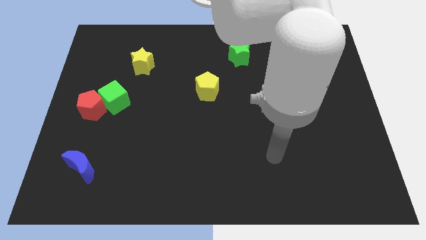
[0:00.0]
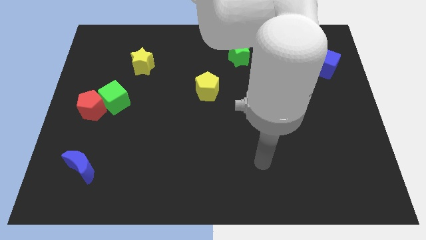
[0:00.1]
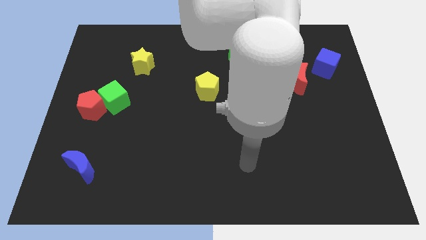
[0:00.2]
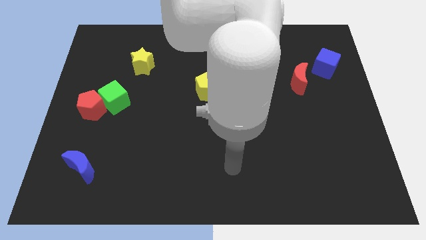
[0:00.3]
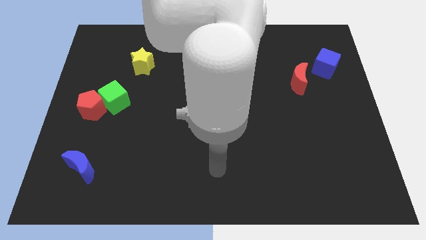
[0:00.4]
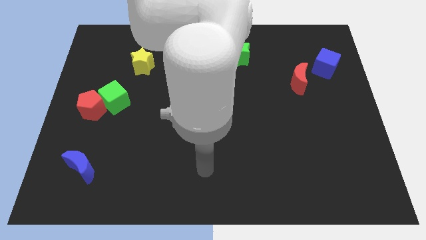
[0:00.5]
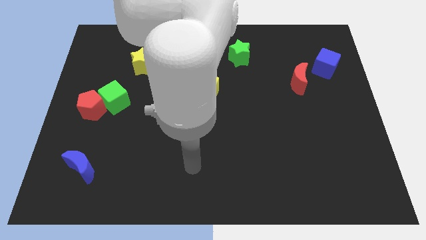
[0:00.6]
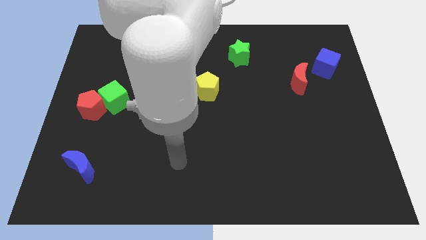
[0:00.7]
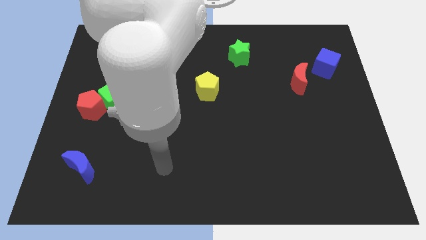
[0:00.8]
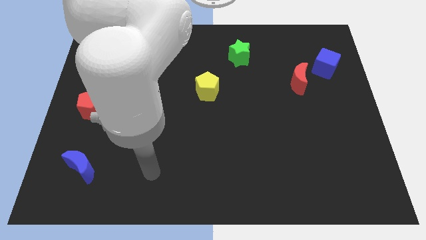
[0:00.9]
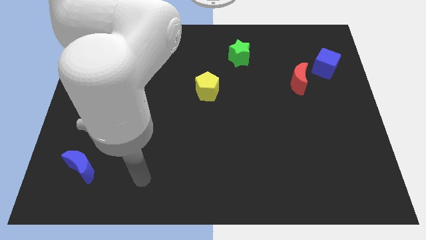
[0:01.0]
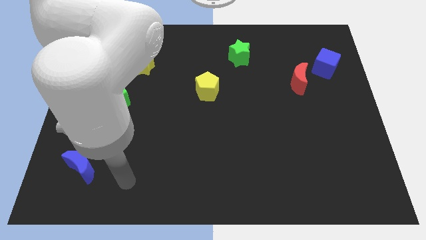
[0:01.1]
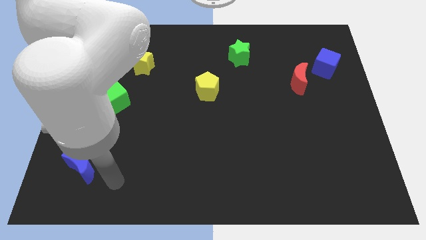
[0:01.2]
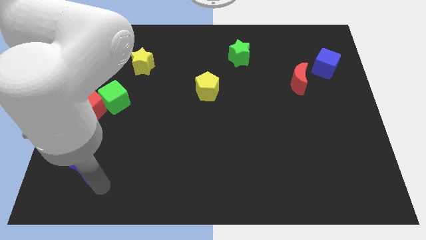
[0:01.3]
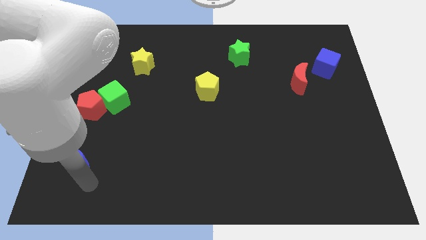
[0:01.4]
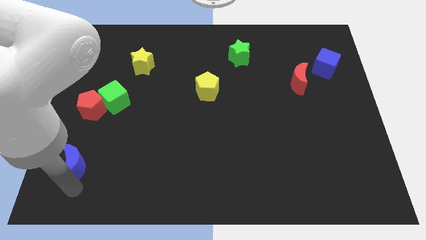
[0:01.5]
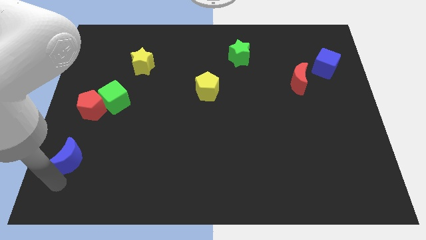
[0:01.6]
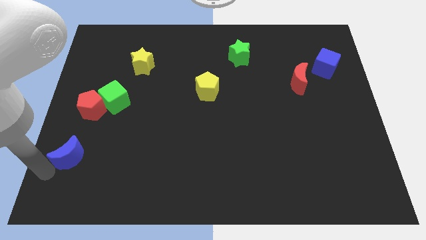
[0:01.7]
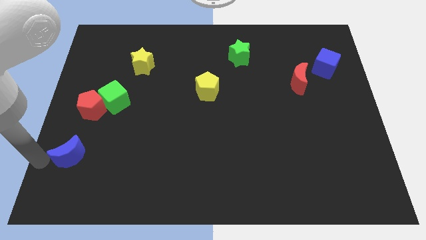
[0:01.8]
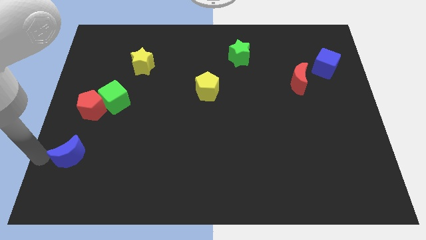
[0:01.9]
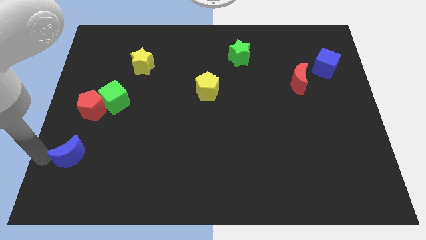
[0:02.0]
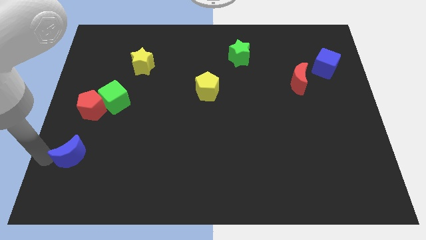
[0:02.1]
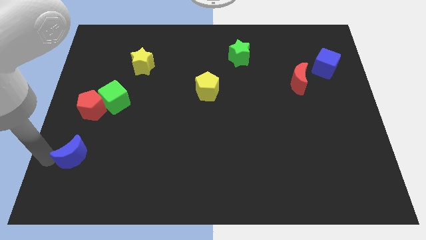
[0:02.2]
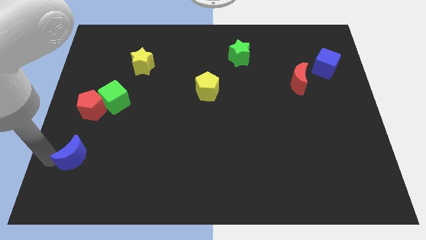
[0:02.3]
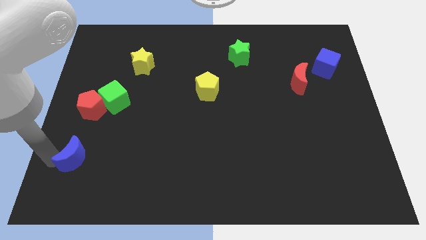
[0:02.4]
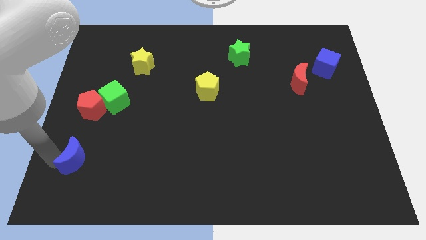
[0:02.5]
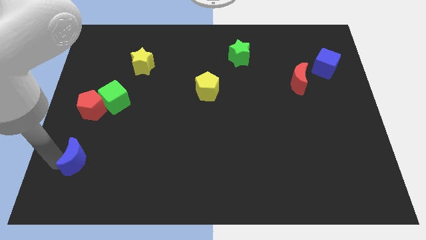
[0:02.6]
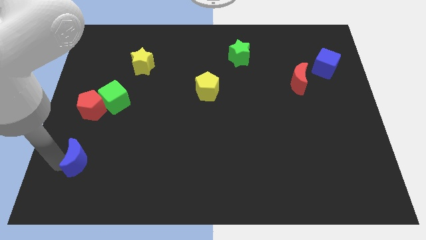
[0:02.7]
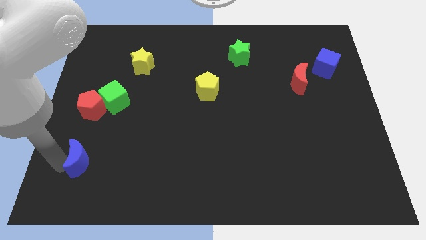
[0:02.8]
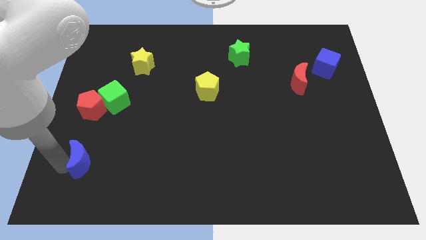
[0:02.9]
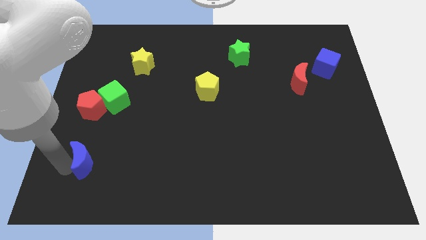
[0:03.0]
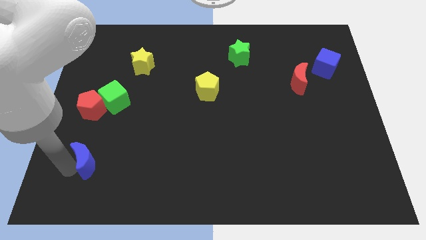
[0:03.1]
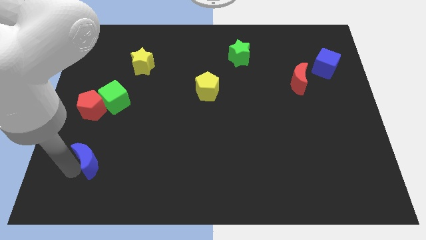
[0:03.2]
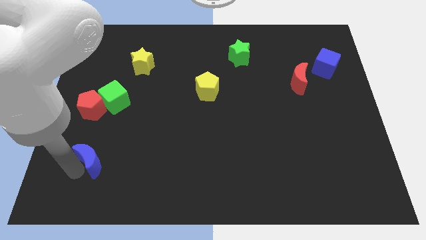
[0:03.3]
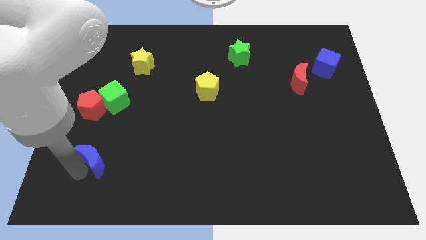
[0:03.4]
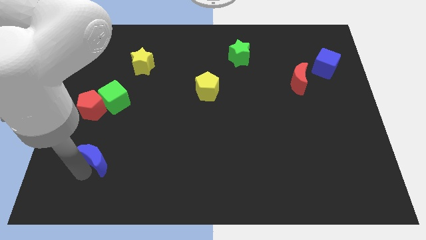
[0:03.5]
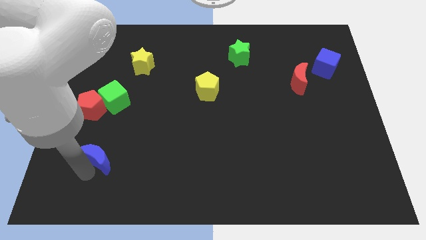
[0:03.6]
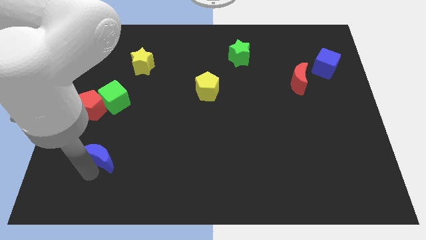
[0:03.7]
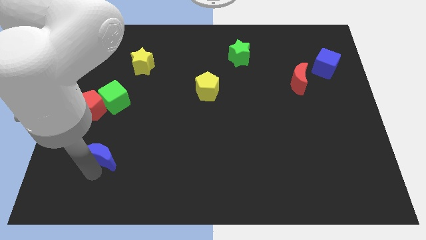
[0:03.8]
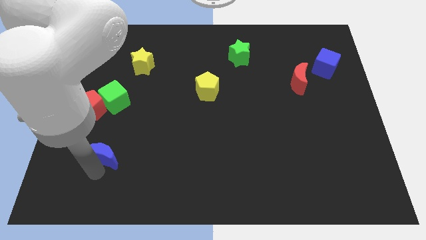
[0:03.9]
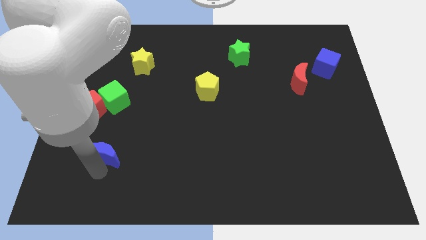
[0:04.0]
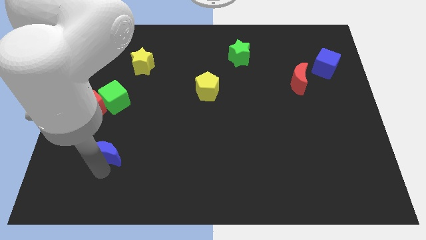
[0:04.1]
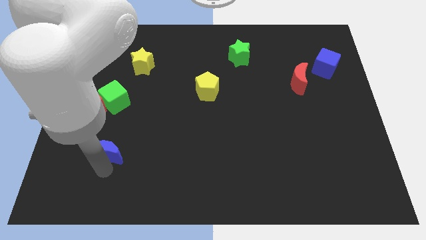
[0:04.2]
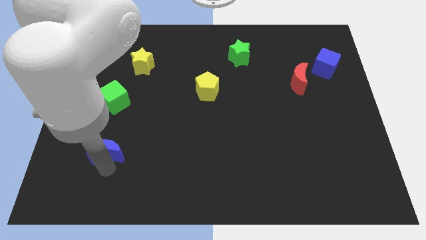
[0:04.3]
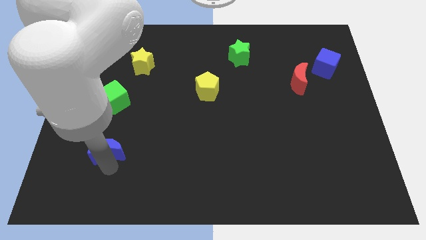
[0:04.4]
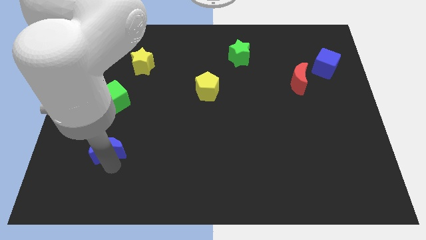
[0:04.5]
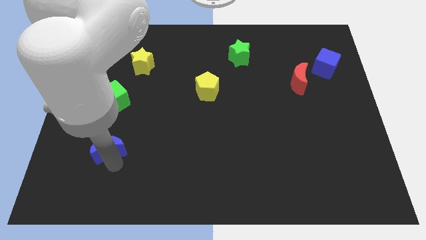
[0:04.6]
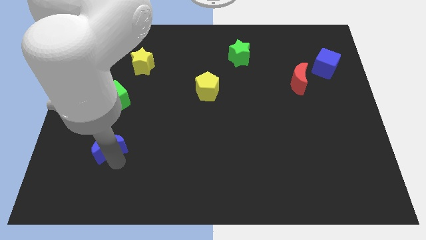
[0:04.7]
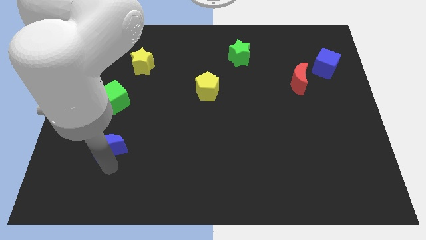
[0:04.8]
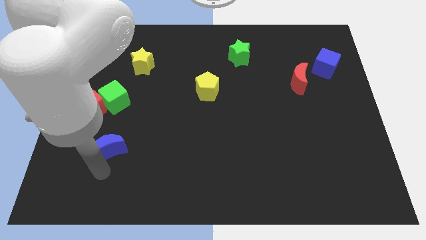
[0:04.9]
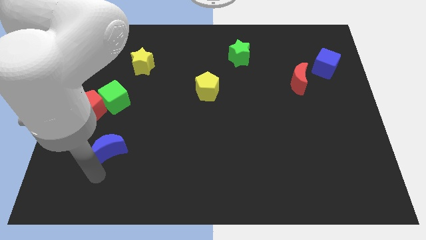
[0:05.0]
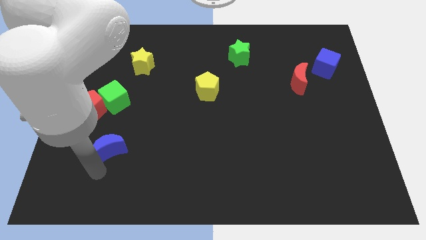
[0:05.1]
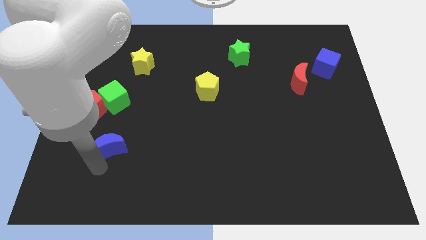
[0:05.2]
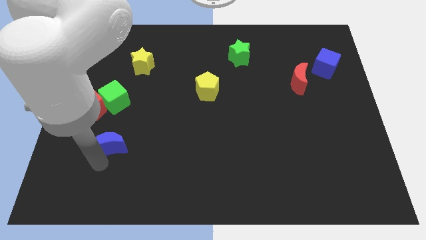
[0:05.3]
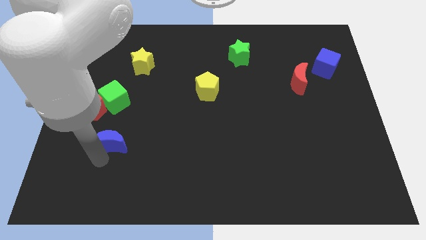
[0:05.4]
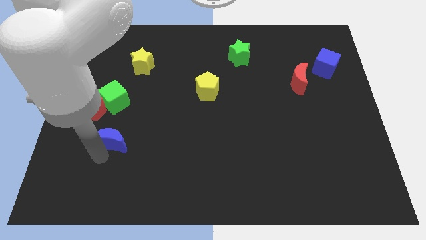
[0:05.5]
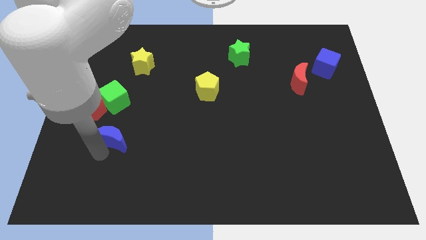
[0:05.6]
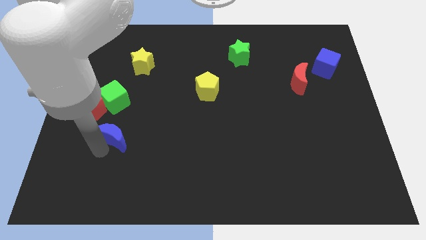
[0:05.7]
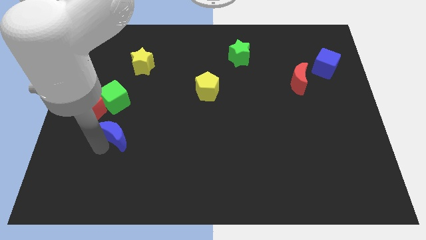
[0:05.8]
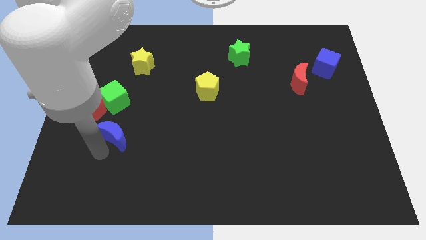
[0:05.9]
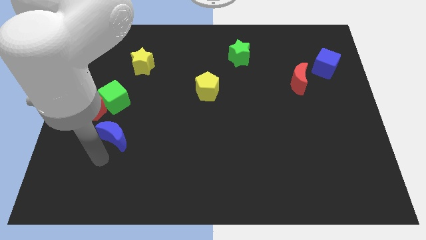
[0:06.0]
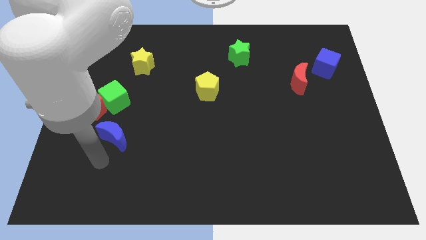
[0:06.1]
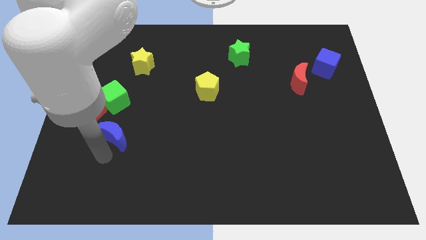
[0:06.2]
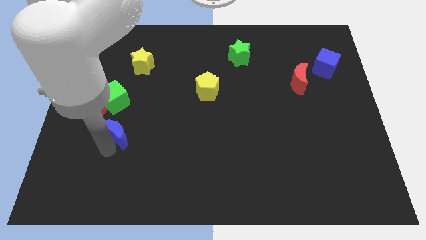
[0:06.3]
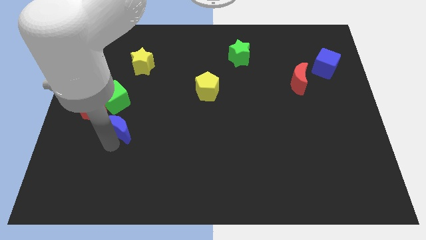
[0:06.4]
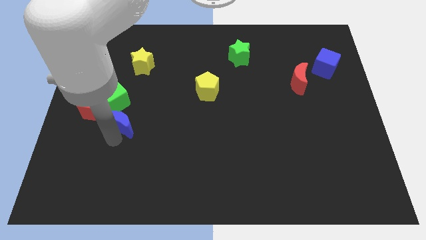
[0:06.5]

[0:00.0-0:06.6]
move the blue moon just right of the red pentagon

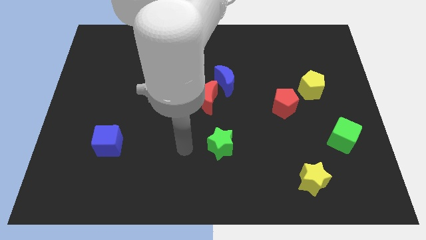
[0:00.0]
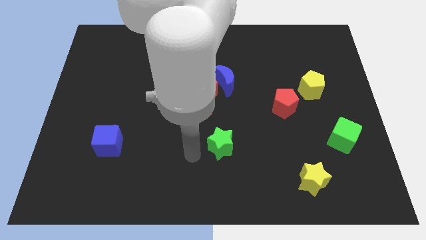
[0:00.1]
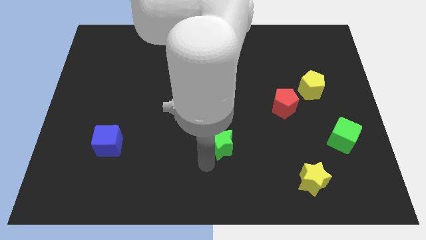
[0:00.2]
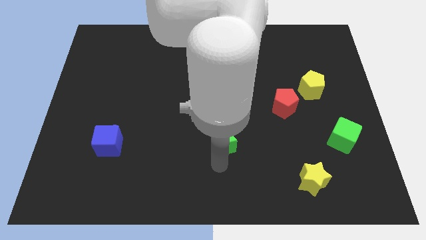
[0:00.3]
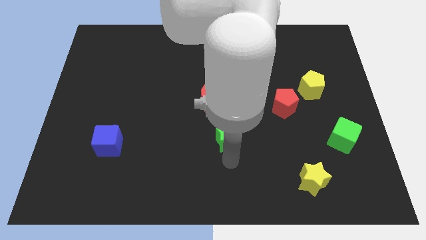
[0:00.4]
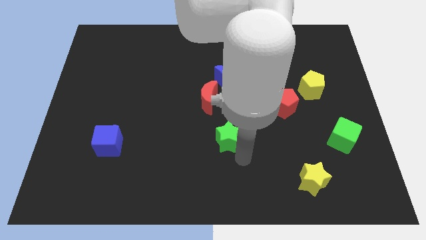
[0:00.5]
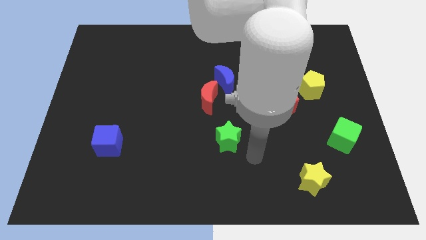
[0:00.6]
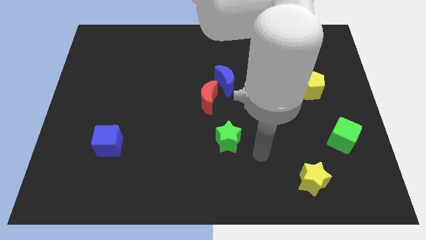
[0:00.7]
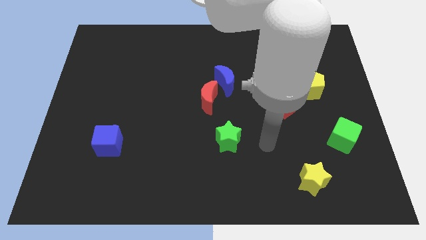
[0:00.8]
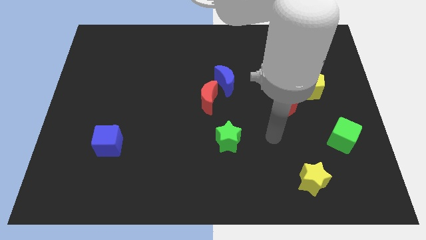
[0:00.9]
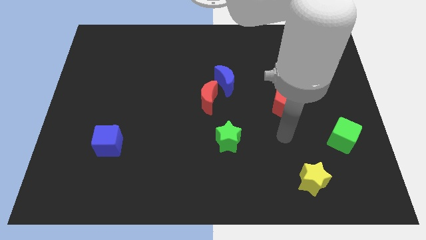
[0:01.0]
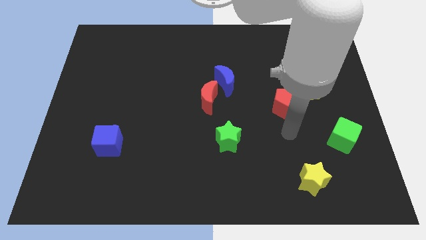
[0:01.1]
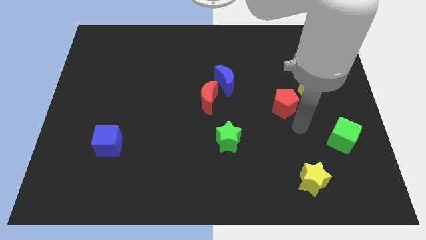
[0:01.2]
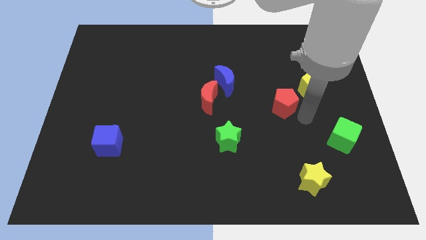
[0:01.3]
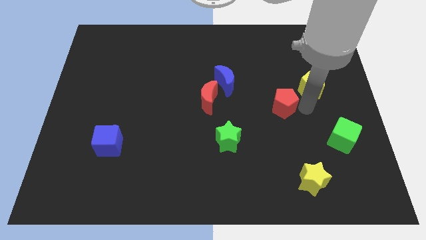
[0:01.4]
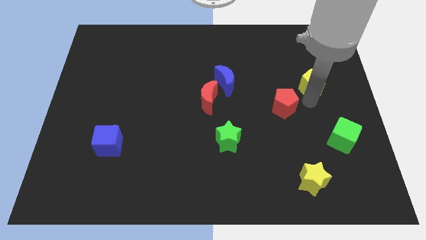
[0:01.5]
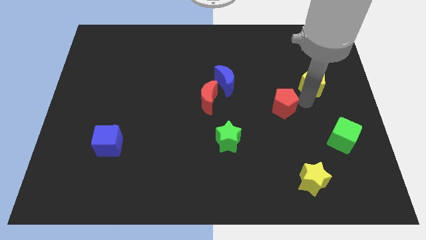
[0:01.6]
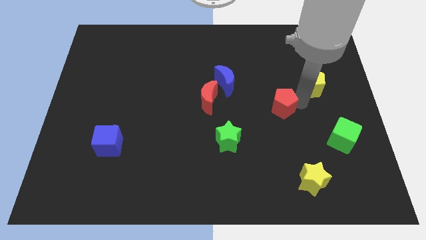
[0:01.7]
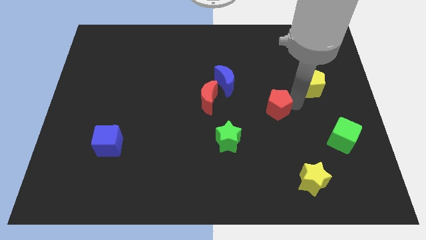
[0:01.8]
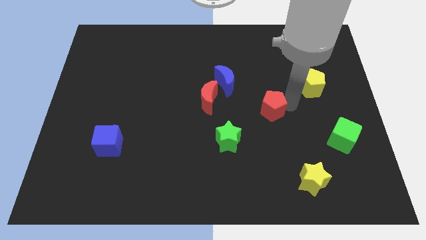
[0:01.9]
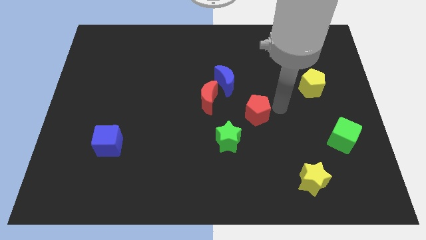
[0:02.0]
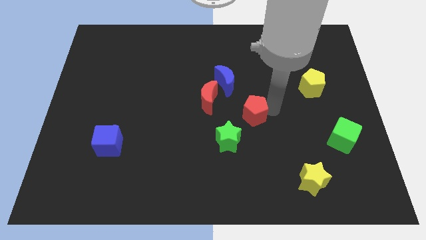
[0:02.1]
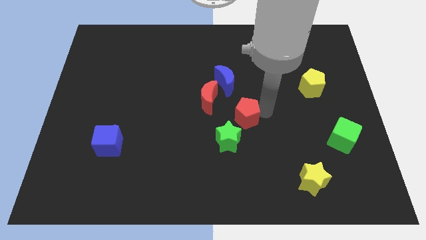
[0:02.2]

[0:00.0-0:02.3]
move the red pentagon below the blue moon
